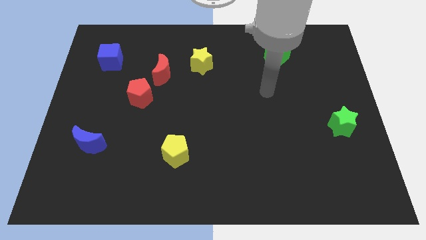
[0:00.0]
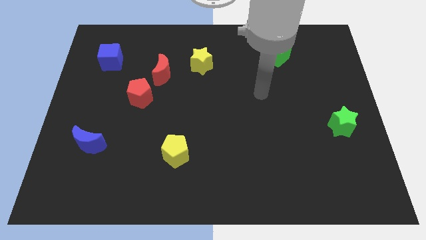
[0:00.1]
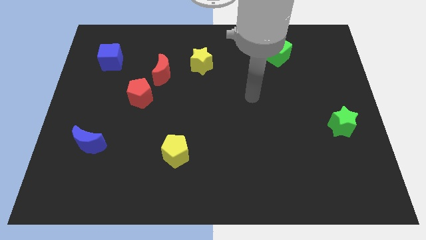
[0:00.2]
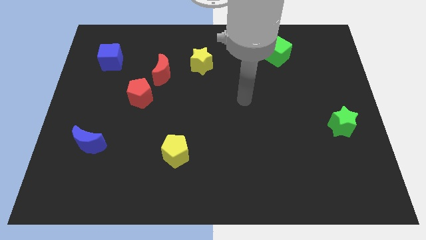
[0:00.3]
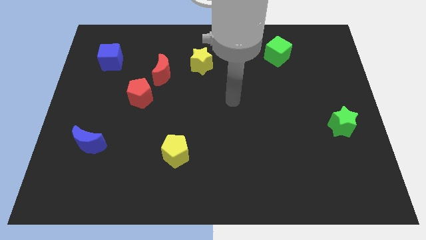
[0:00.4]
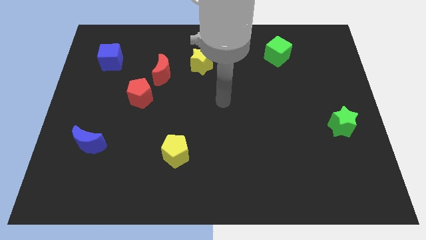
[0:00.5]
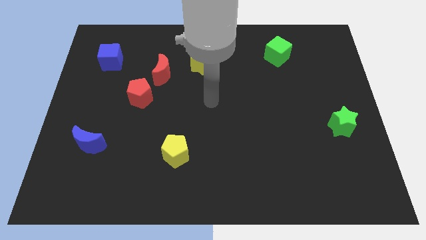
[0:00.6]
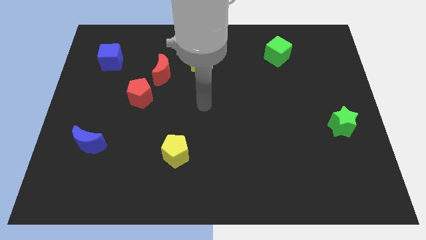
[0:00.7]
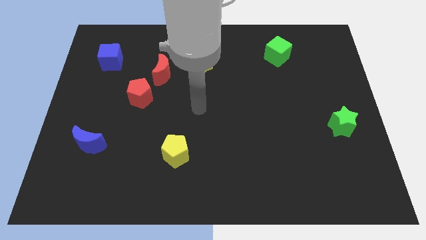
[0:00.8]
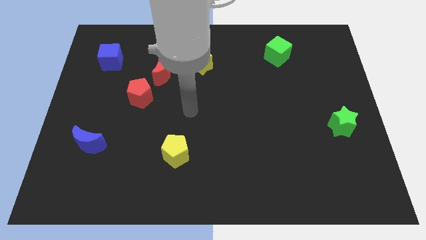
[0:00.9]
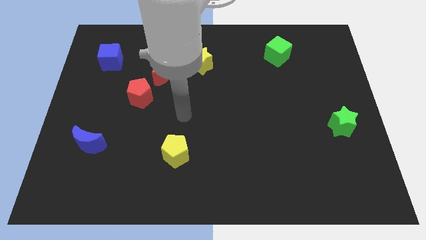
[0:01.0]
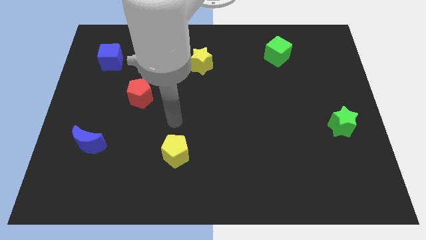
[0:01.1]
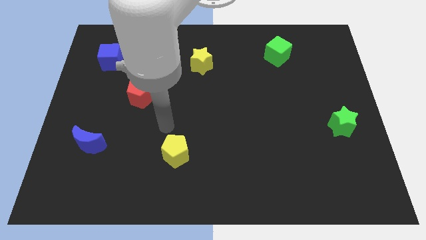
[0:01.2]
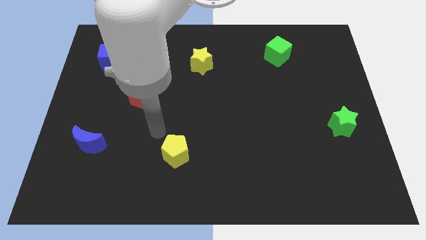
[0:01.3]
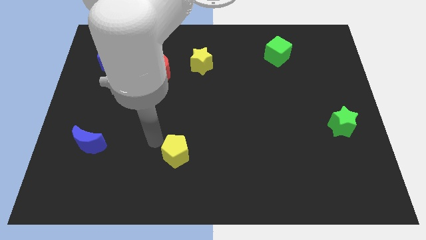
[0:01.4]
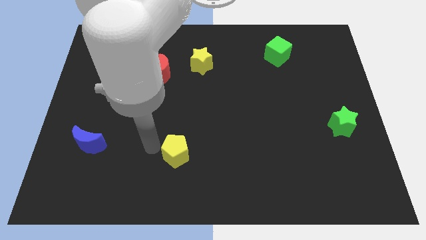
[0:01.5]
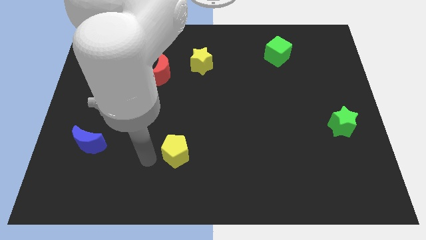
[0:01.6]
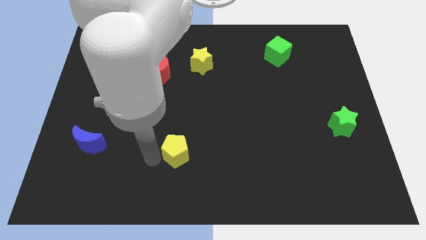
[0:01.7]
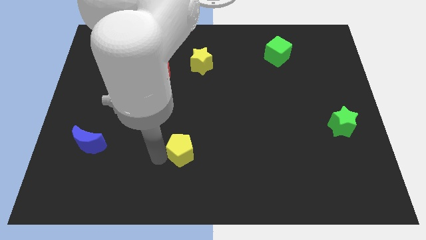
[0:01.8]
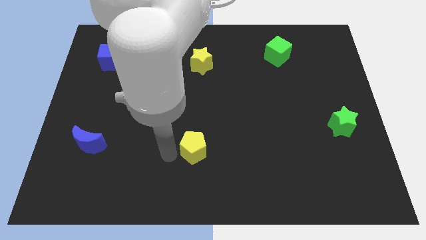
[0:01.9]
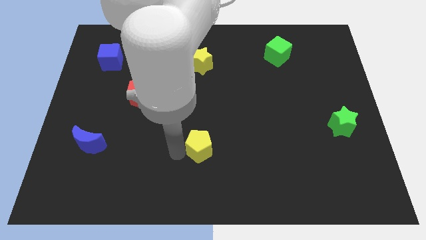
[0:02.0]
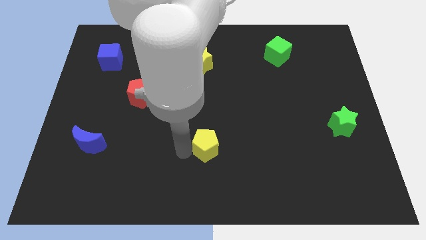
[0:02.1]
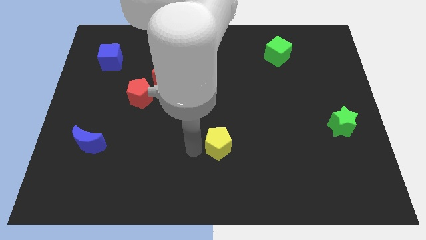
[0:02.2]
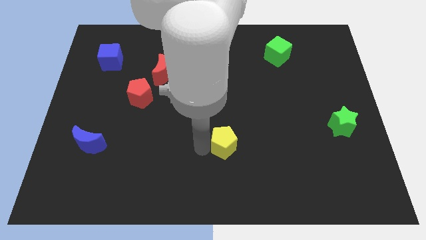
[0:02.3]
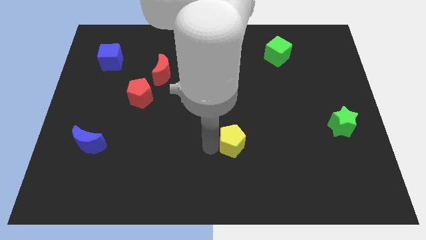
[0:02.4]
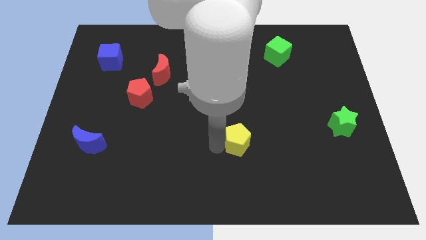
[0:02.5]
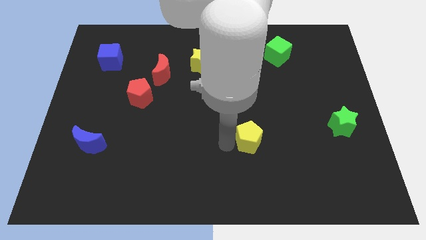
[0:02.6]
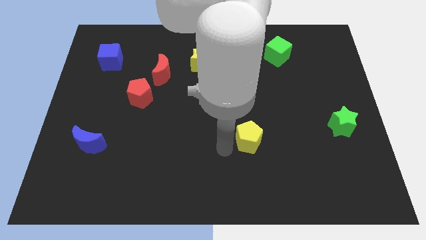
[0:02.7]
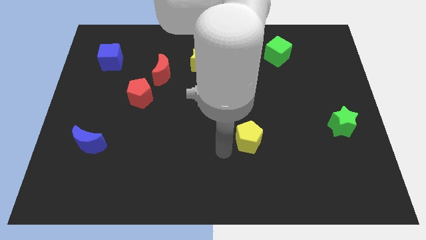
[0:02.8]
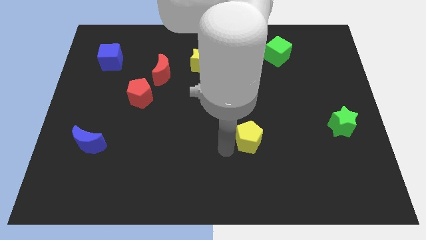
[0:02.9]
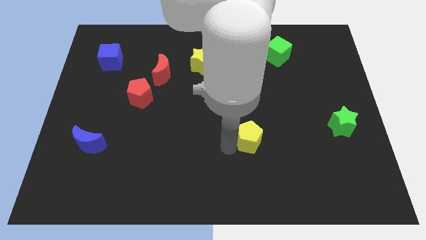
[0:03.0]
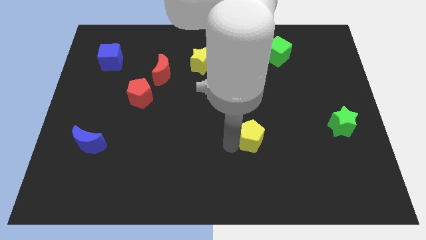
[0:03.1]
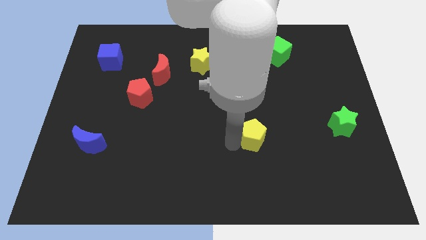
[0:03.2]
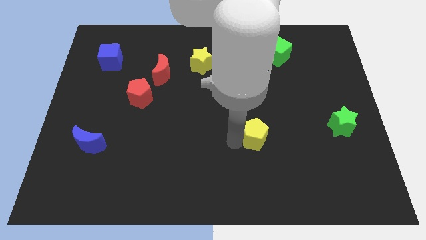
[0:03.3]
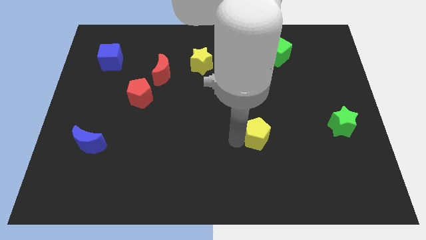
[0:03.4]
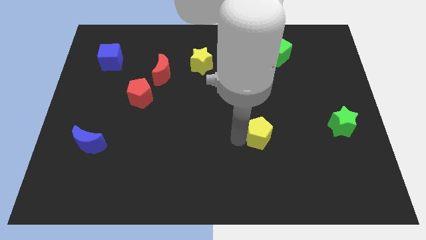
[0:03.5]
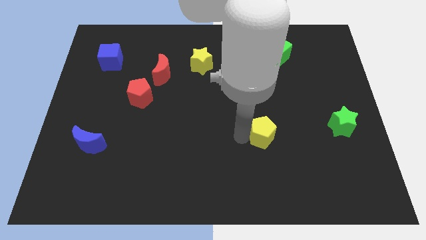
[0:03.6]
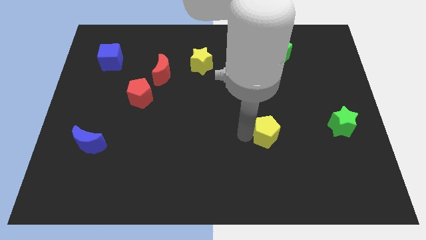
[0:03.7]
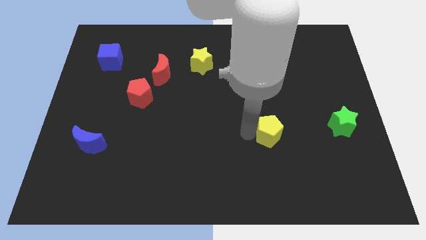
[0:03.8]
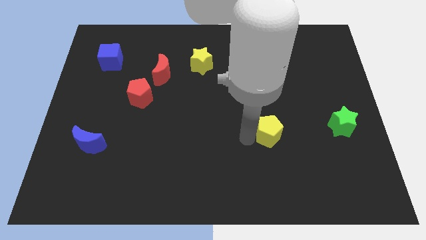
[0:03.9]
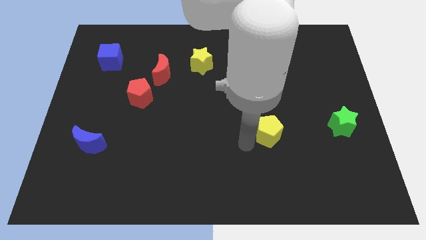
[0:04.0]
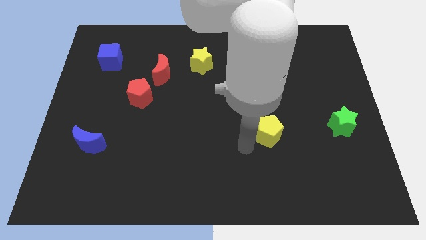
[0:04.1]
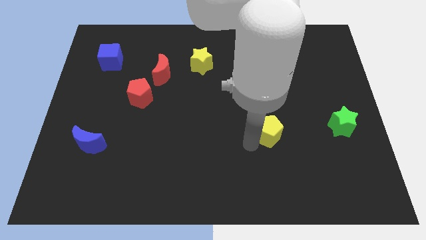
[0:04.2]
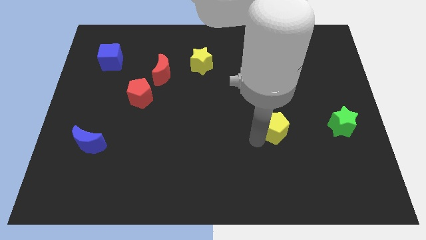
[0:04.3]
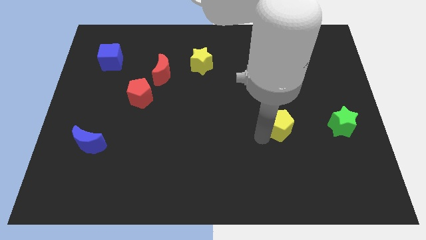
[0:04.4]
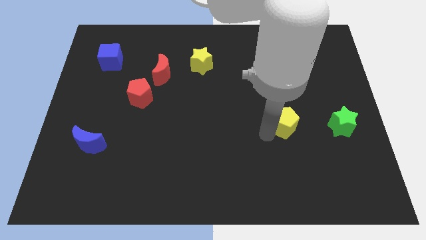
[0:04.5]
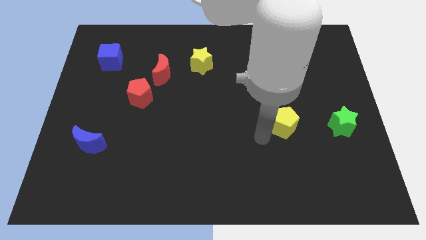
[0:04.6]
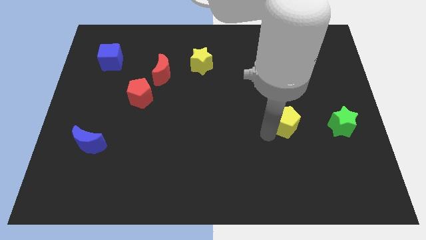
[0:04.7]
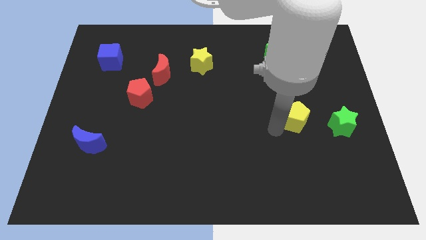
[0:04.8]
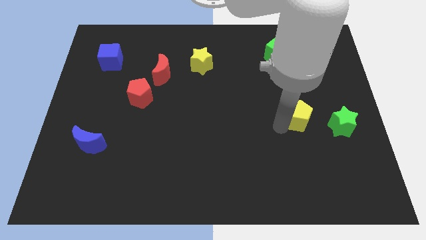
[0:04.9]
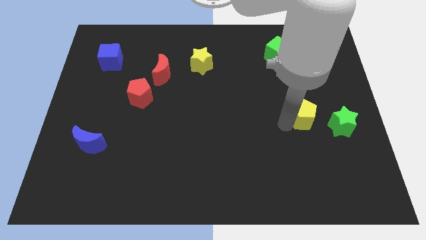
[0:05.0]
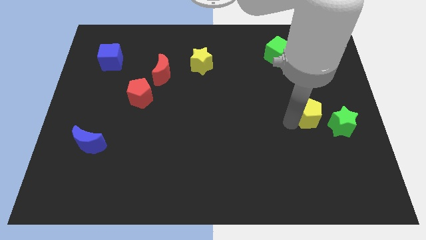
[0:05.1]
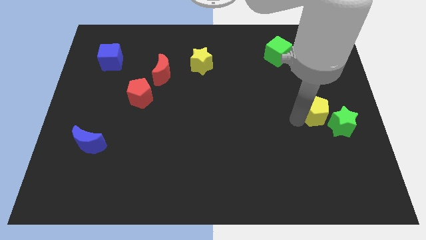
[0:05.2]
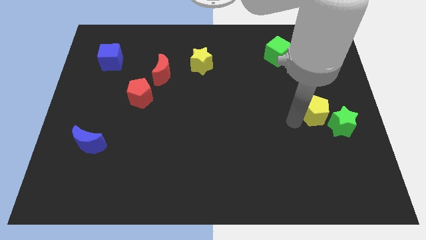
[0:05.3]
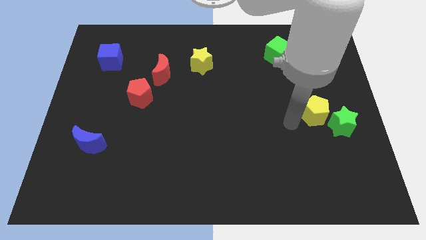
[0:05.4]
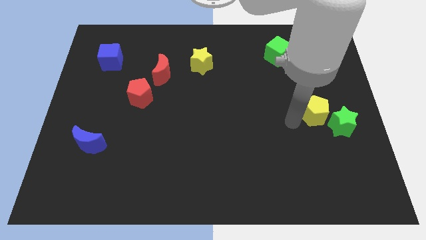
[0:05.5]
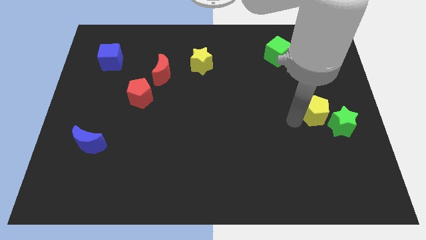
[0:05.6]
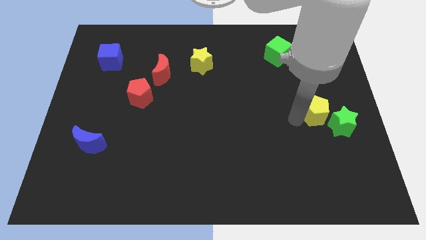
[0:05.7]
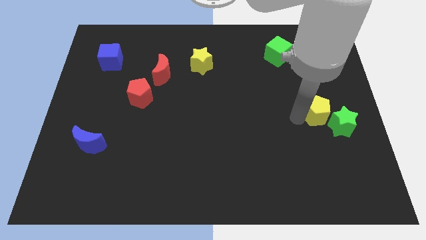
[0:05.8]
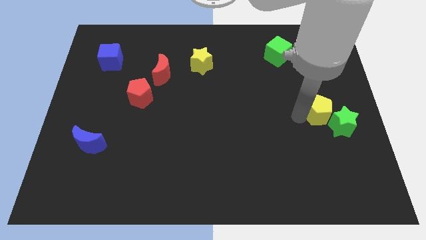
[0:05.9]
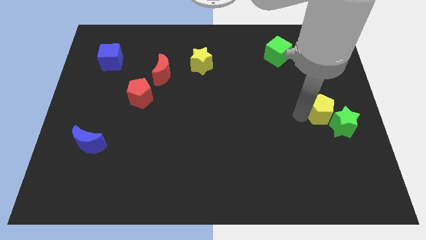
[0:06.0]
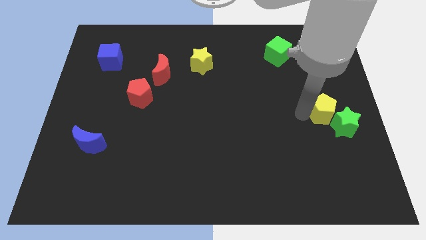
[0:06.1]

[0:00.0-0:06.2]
push the yellow pentagon to the right side
